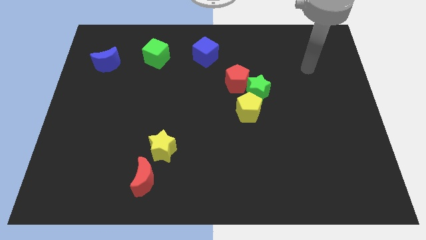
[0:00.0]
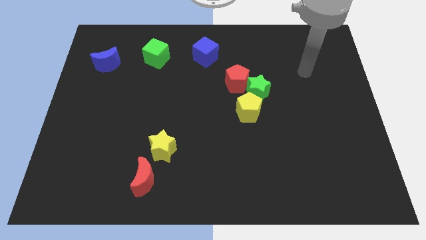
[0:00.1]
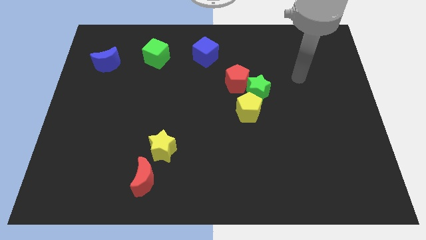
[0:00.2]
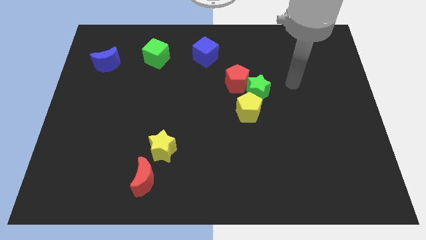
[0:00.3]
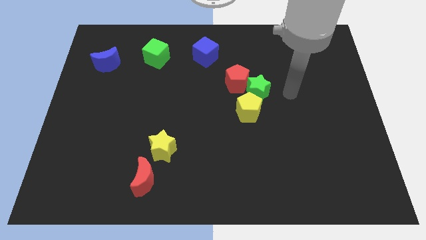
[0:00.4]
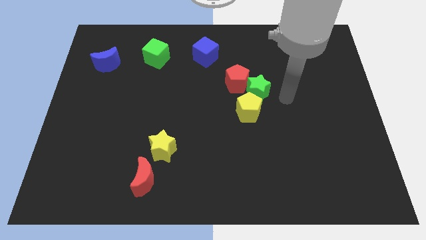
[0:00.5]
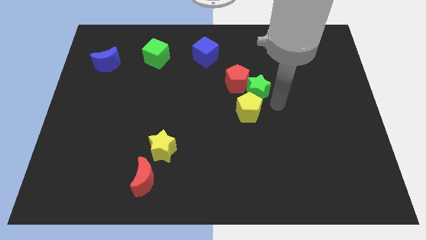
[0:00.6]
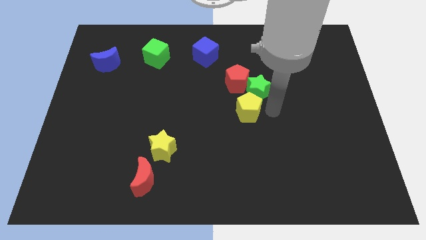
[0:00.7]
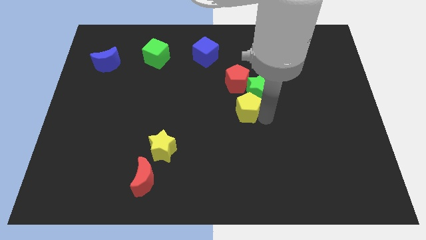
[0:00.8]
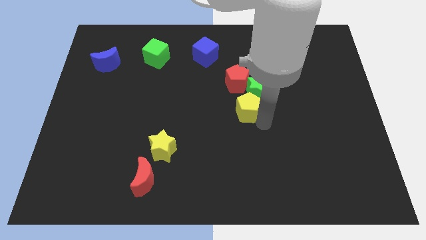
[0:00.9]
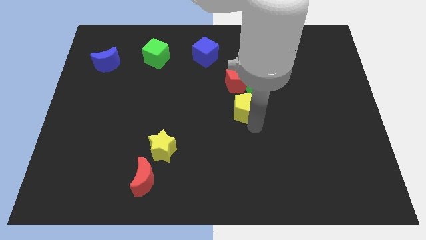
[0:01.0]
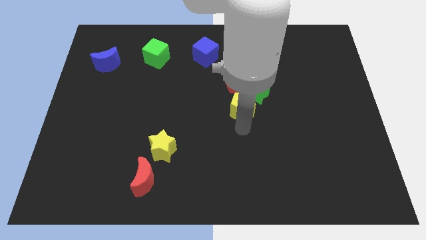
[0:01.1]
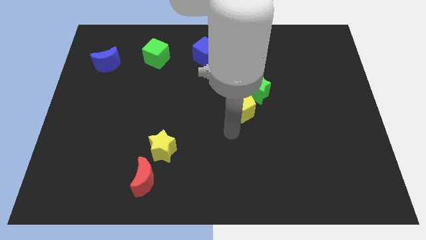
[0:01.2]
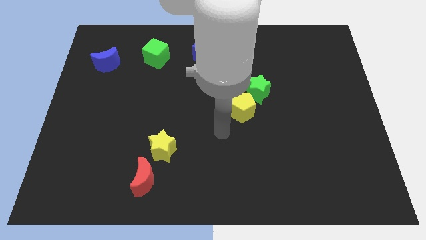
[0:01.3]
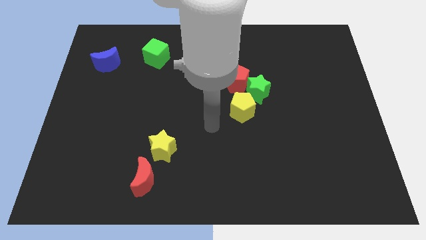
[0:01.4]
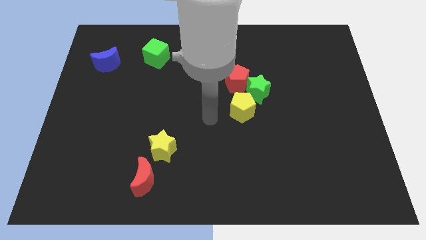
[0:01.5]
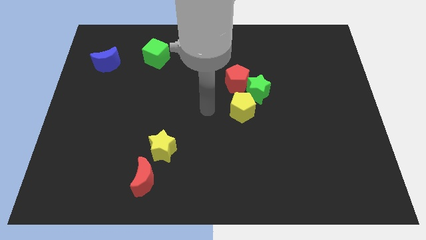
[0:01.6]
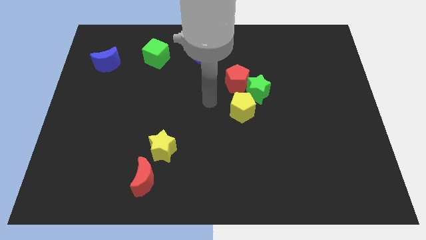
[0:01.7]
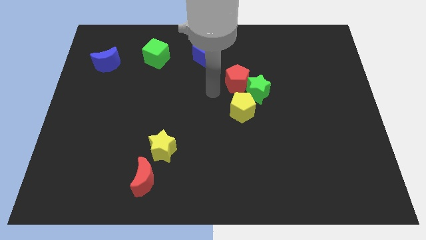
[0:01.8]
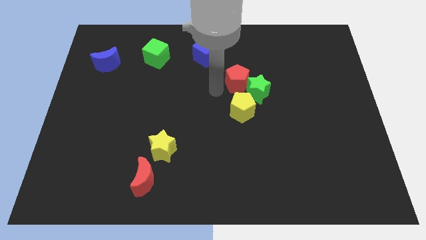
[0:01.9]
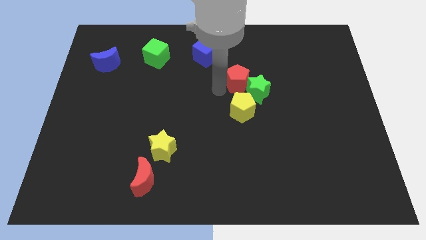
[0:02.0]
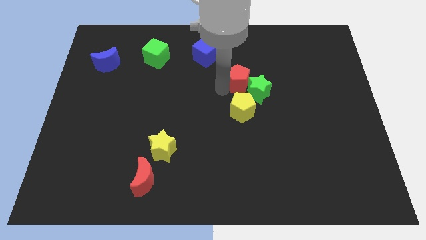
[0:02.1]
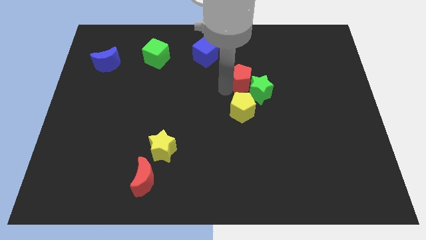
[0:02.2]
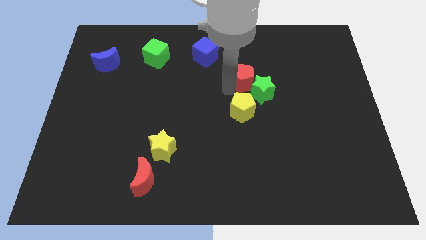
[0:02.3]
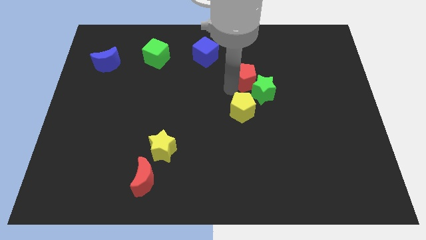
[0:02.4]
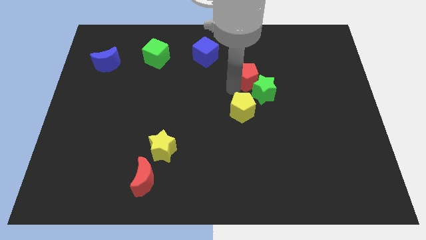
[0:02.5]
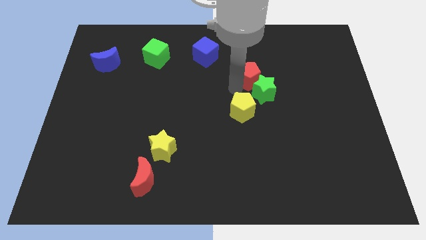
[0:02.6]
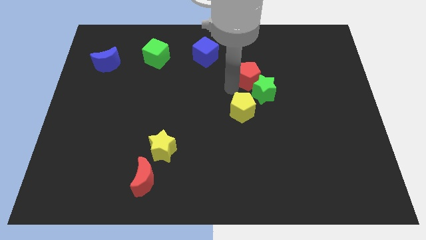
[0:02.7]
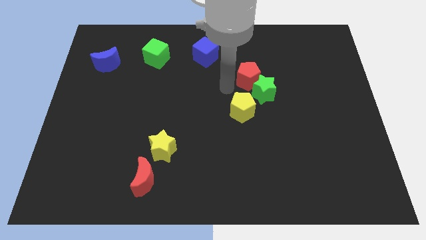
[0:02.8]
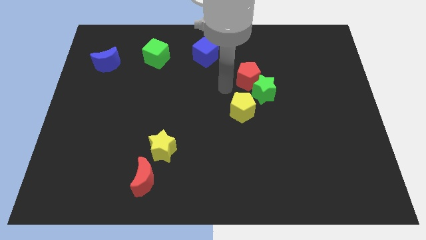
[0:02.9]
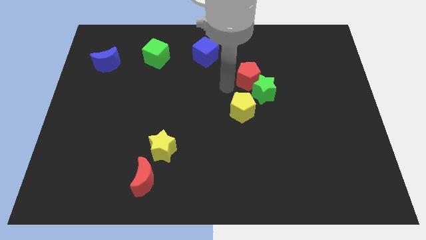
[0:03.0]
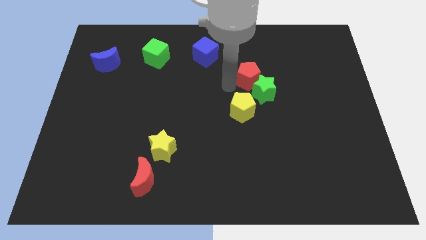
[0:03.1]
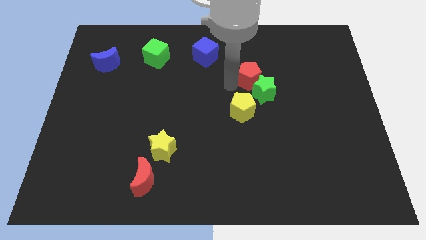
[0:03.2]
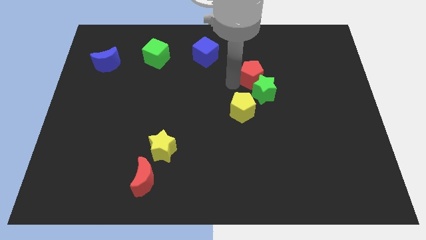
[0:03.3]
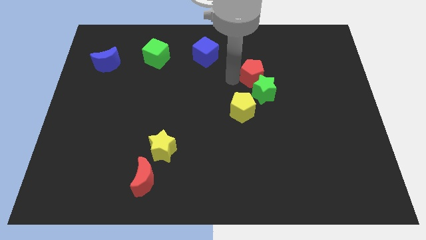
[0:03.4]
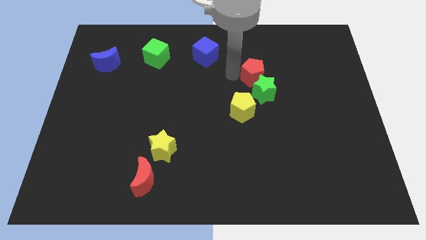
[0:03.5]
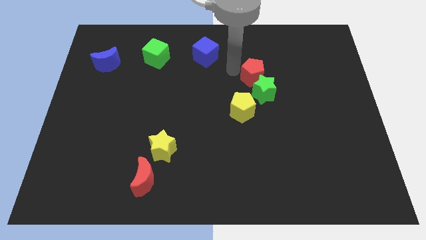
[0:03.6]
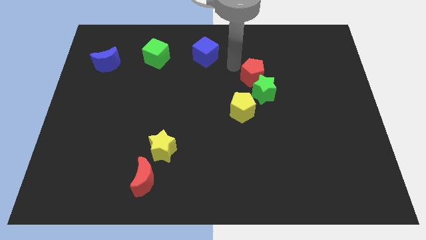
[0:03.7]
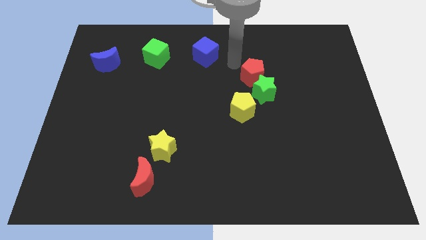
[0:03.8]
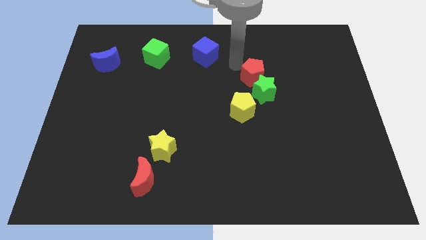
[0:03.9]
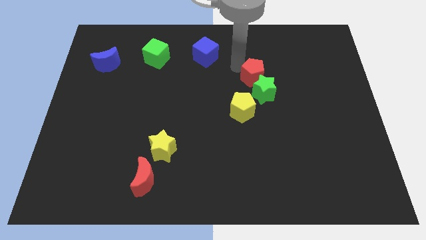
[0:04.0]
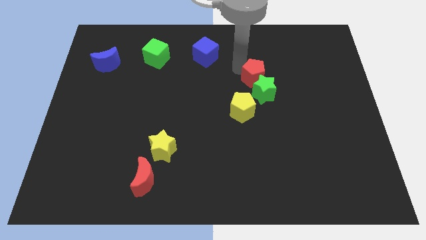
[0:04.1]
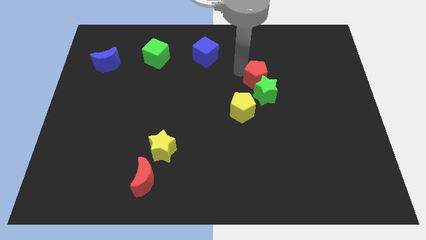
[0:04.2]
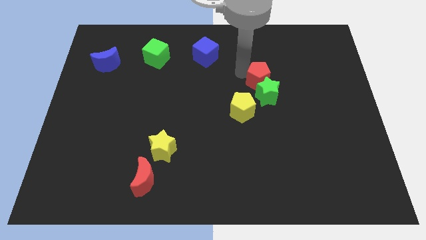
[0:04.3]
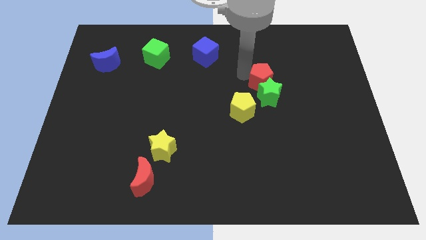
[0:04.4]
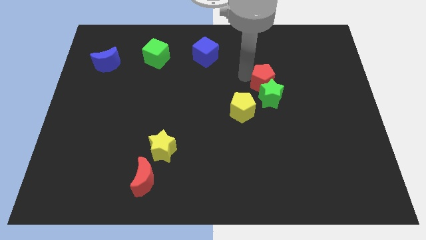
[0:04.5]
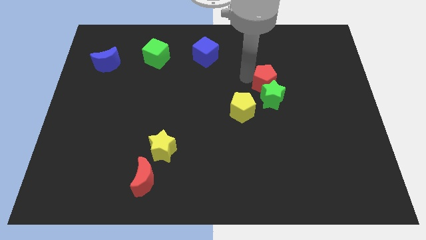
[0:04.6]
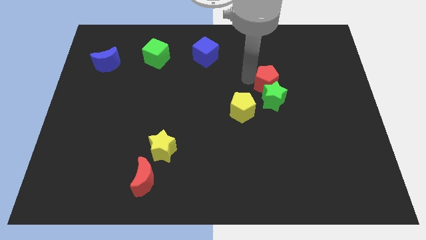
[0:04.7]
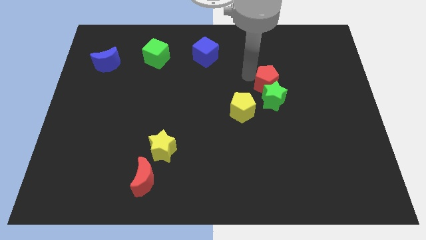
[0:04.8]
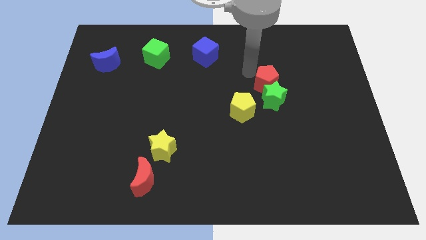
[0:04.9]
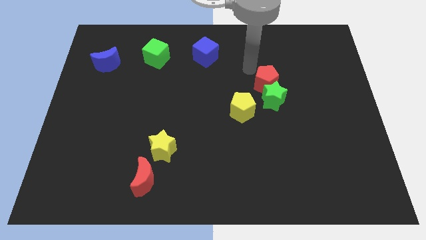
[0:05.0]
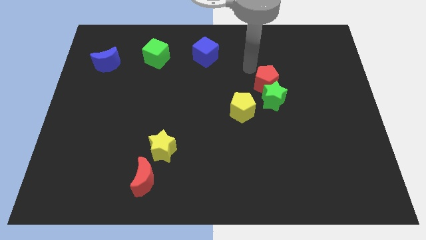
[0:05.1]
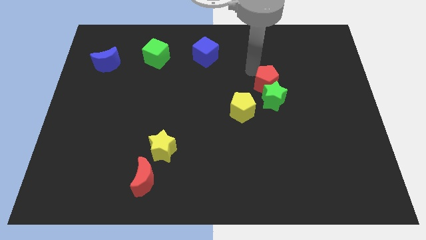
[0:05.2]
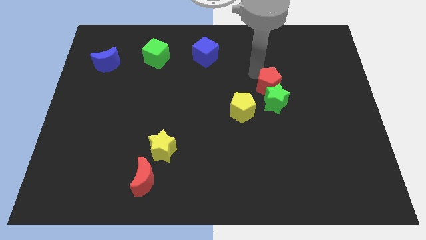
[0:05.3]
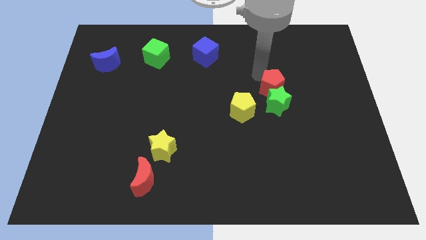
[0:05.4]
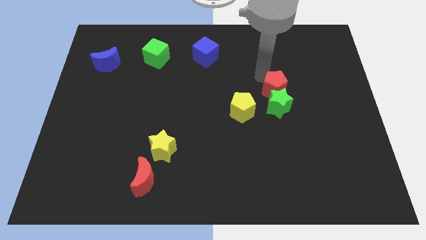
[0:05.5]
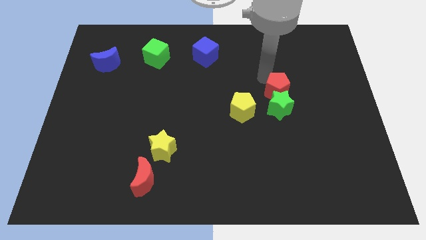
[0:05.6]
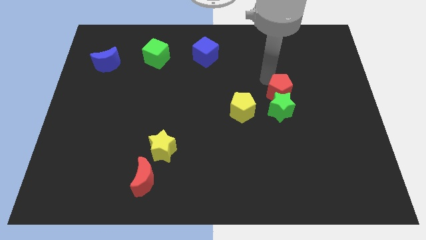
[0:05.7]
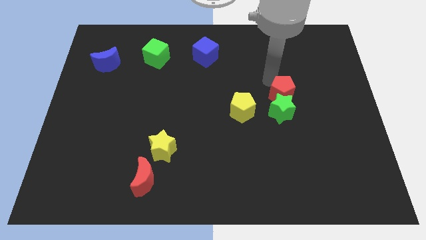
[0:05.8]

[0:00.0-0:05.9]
put the red pentagon just right of the yellow pentagon

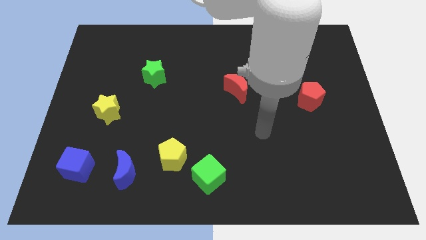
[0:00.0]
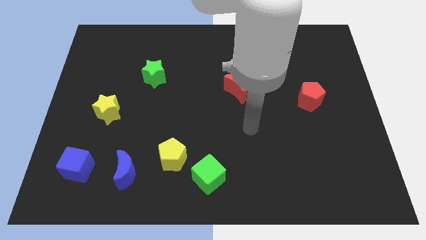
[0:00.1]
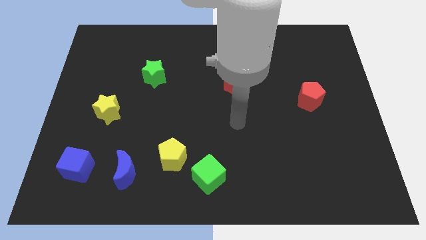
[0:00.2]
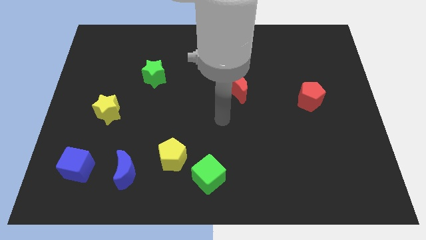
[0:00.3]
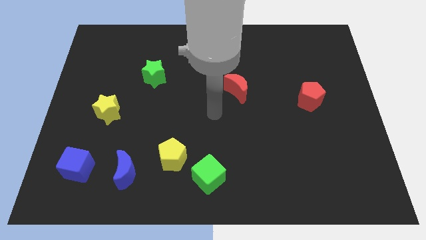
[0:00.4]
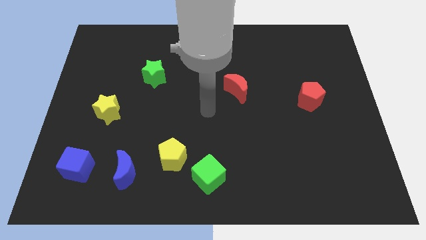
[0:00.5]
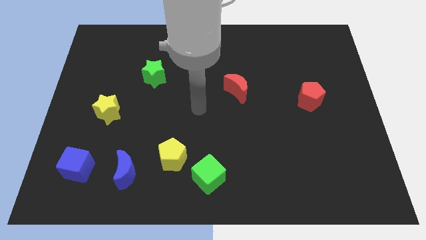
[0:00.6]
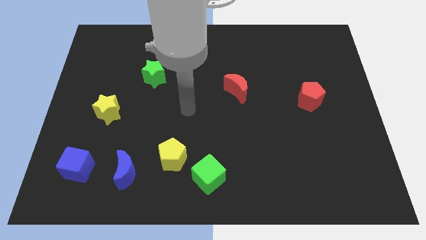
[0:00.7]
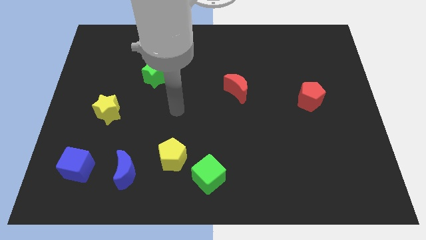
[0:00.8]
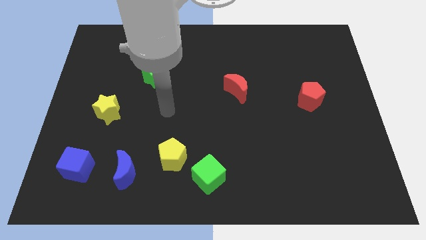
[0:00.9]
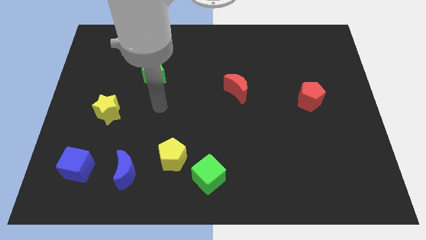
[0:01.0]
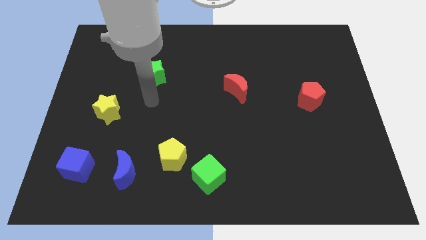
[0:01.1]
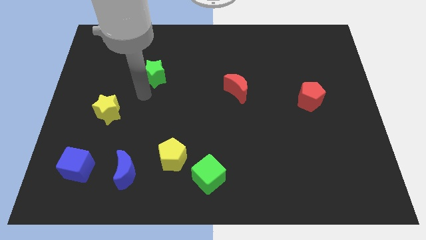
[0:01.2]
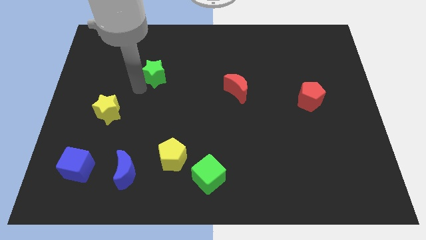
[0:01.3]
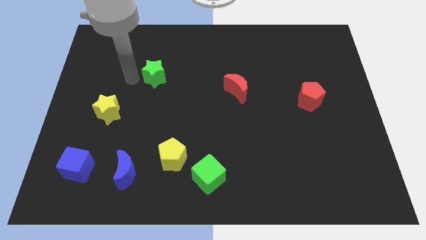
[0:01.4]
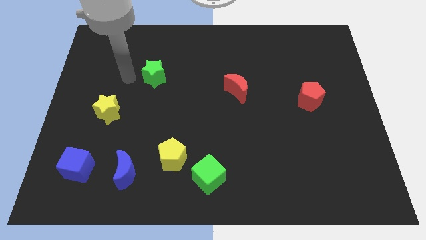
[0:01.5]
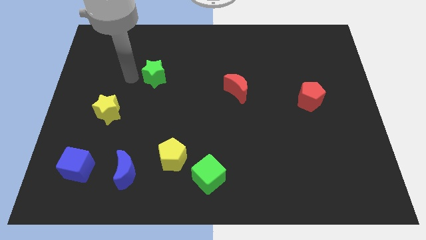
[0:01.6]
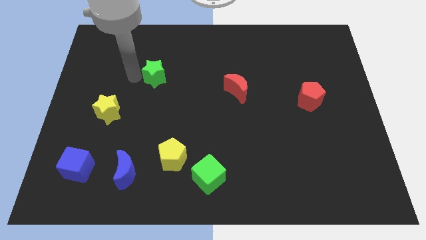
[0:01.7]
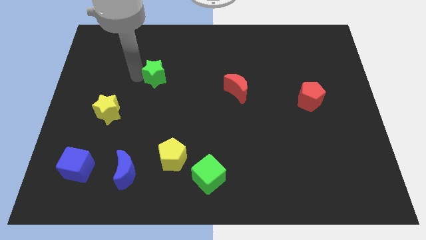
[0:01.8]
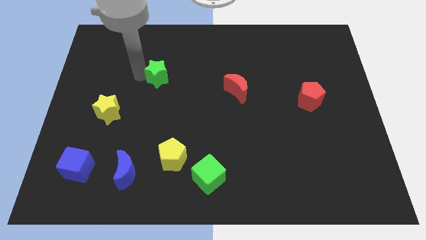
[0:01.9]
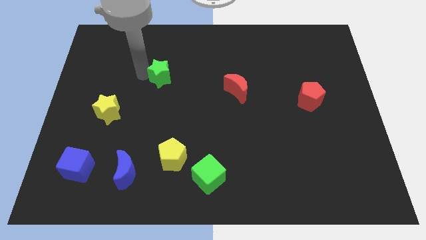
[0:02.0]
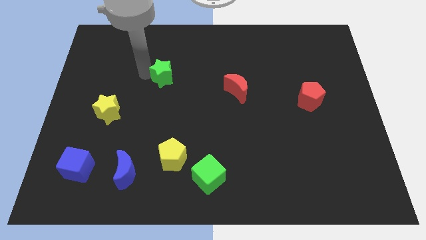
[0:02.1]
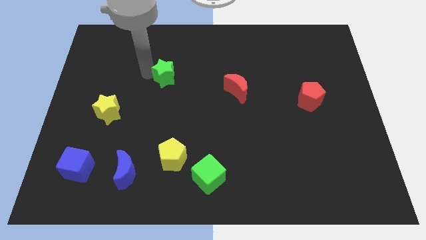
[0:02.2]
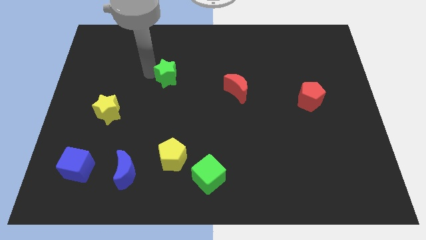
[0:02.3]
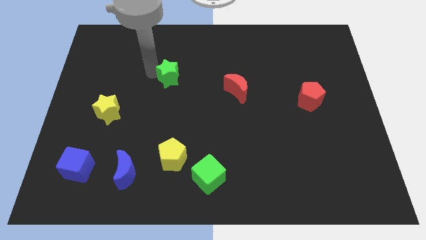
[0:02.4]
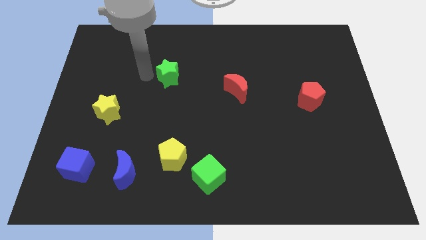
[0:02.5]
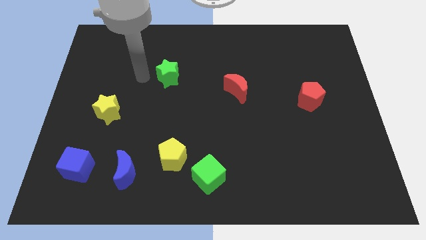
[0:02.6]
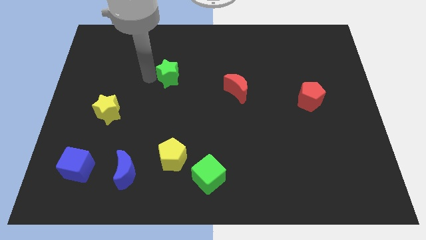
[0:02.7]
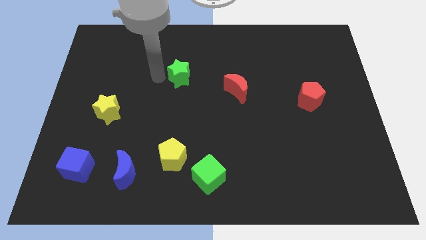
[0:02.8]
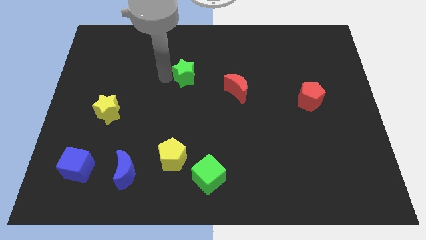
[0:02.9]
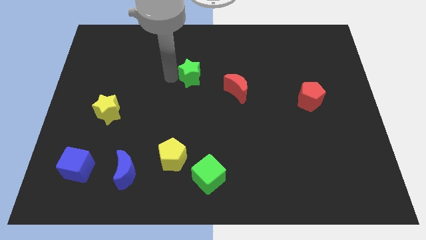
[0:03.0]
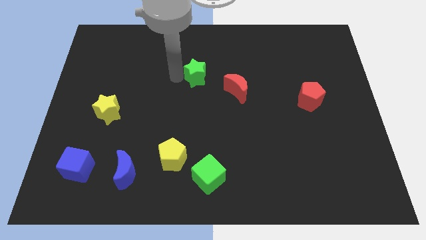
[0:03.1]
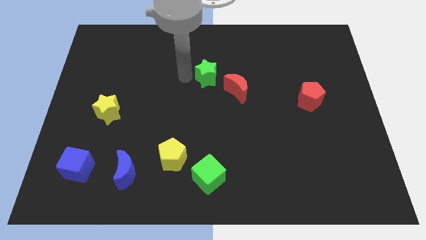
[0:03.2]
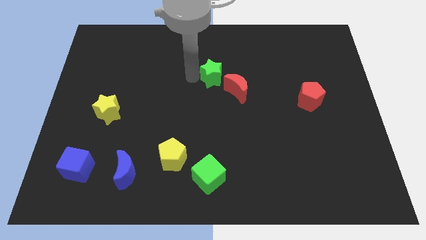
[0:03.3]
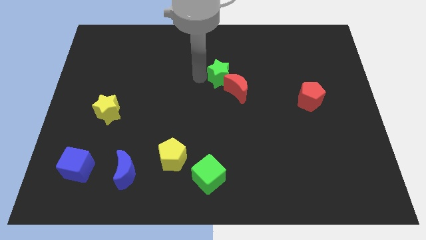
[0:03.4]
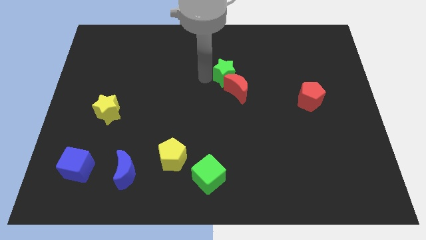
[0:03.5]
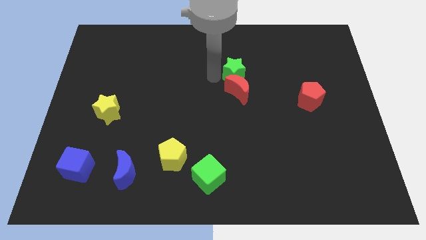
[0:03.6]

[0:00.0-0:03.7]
put the green star to the top right of the red moon
